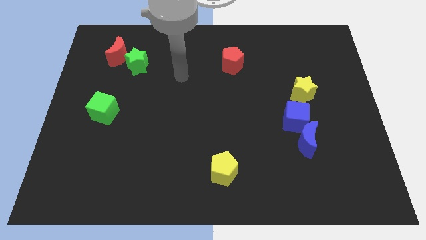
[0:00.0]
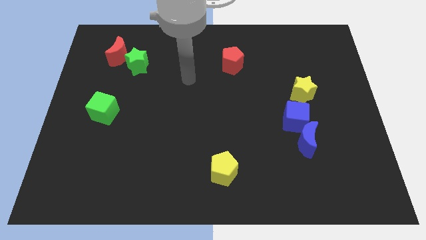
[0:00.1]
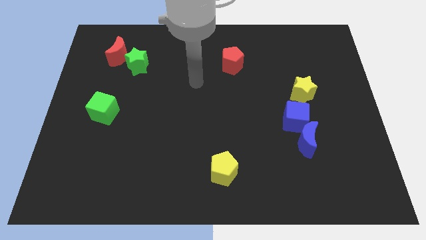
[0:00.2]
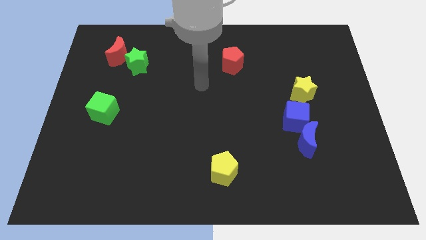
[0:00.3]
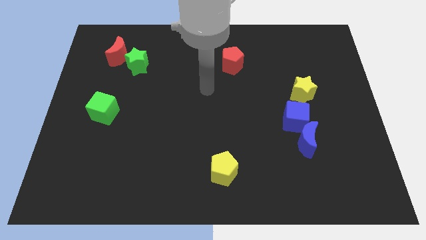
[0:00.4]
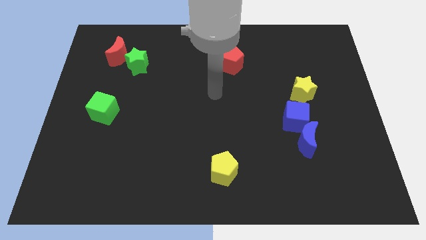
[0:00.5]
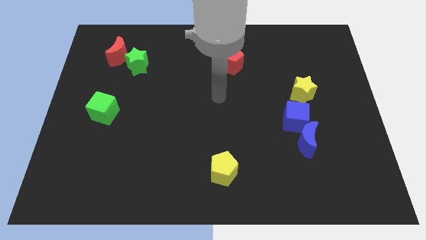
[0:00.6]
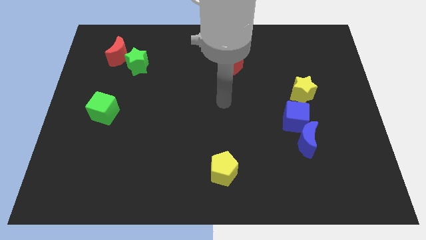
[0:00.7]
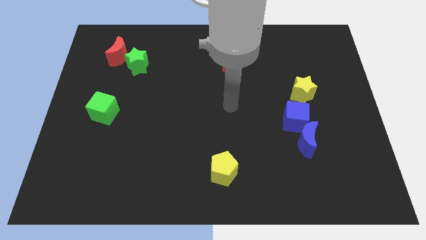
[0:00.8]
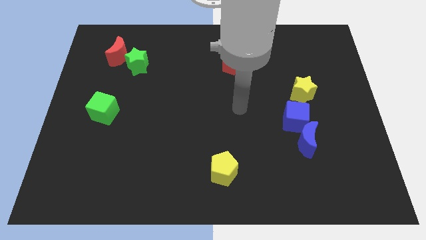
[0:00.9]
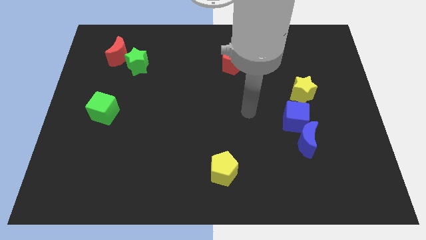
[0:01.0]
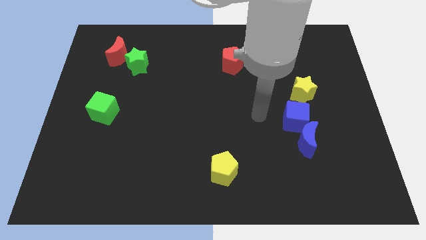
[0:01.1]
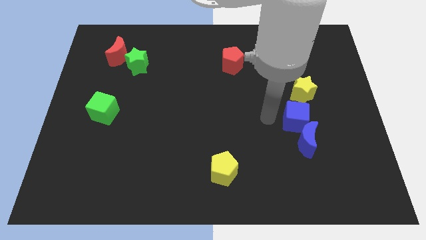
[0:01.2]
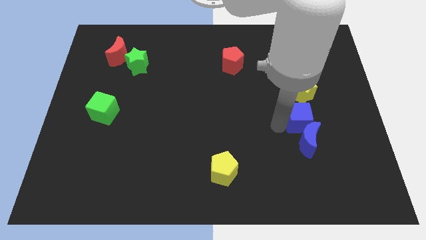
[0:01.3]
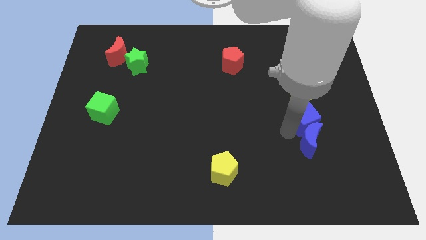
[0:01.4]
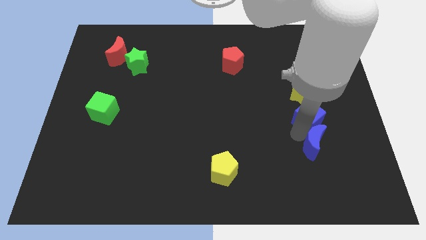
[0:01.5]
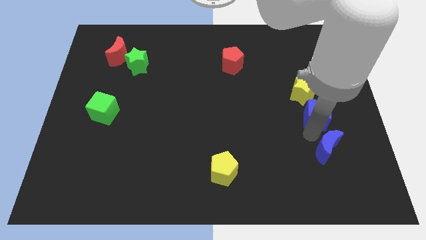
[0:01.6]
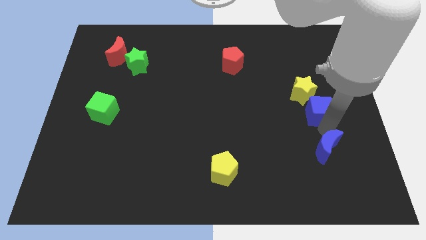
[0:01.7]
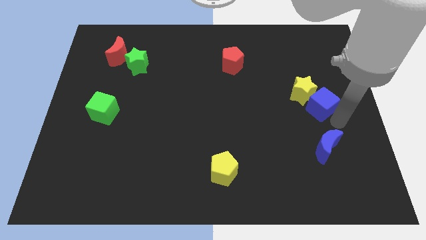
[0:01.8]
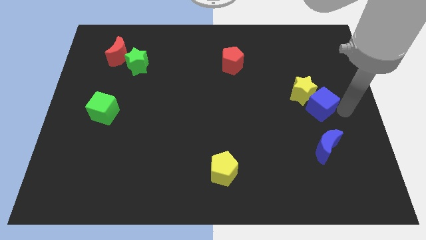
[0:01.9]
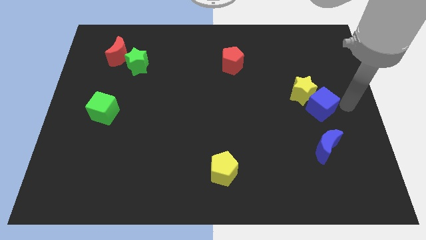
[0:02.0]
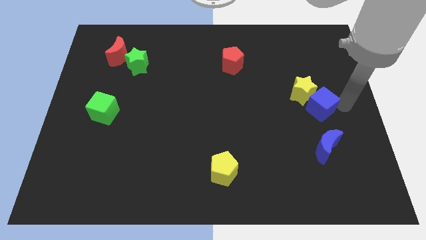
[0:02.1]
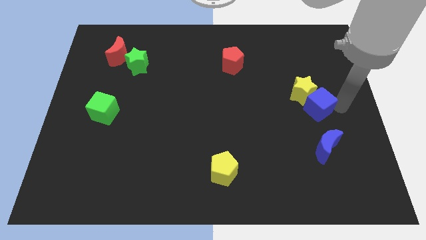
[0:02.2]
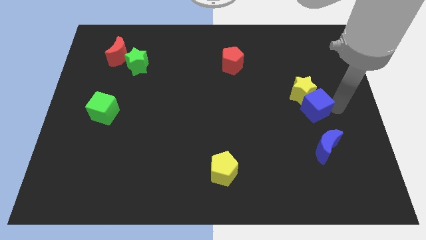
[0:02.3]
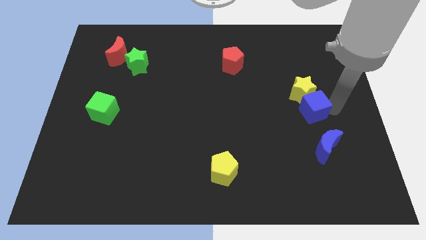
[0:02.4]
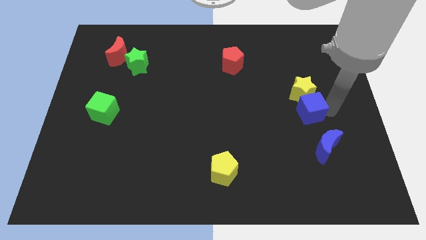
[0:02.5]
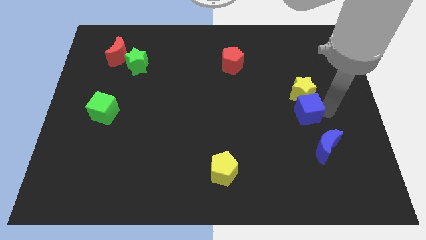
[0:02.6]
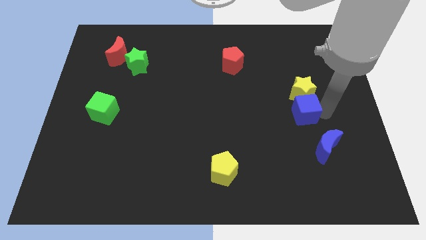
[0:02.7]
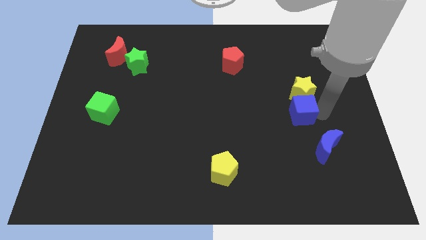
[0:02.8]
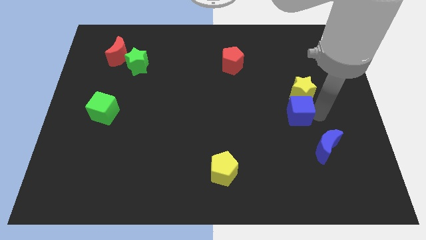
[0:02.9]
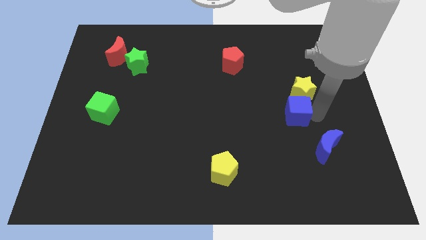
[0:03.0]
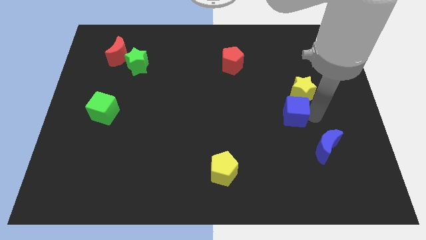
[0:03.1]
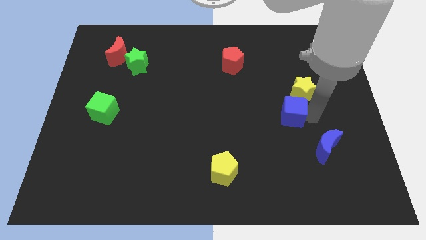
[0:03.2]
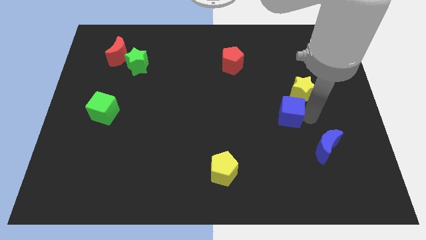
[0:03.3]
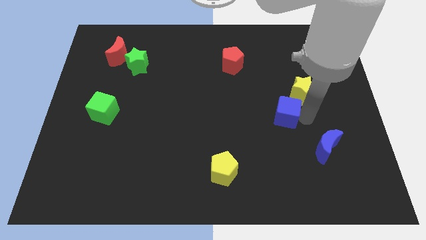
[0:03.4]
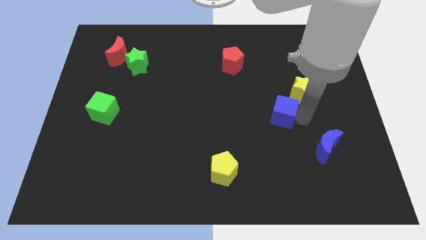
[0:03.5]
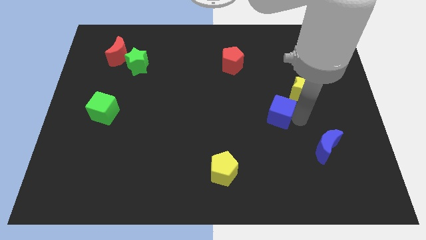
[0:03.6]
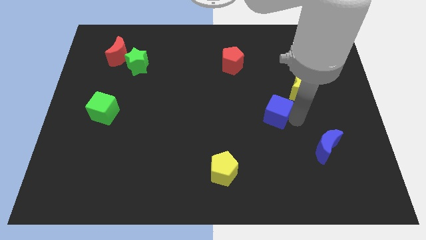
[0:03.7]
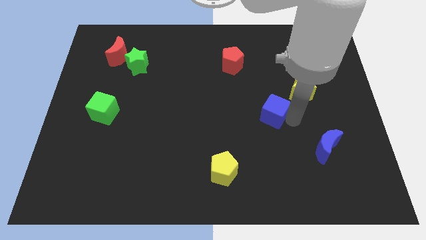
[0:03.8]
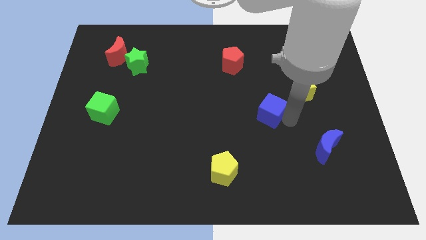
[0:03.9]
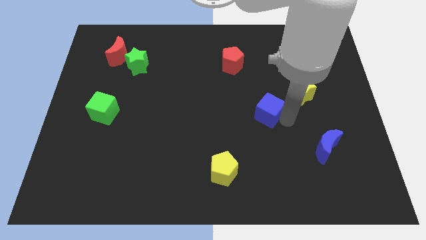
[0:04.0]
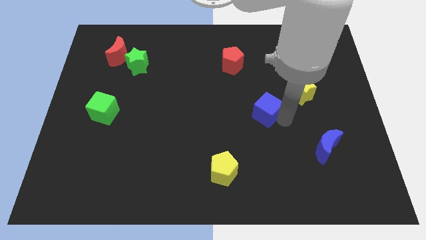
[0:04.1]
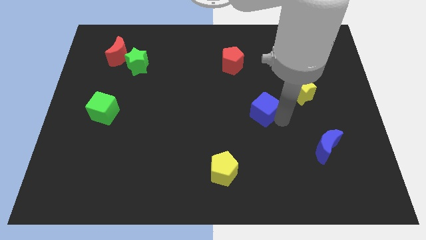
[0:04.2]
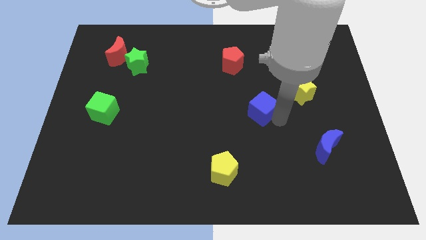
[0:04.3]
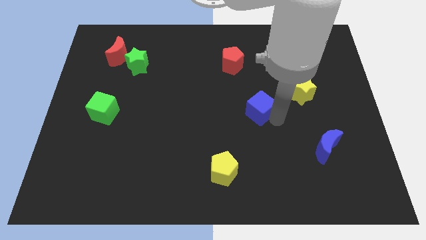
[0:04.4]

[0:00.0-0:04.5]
push the blue cube somewhat upwards and then to the left

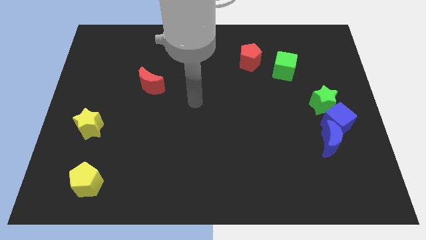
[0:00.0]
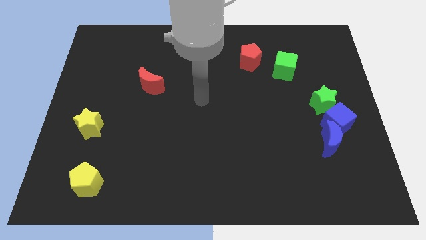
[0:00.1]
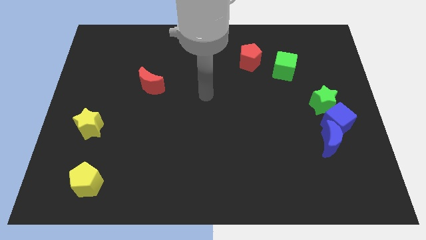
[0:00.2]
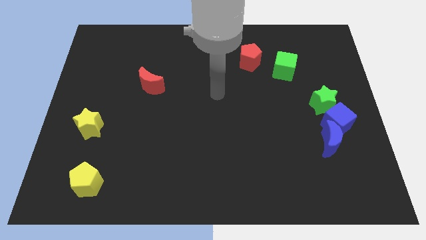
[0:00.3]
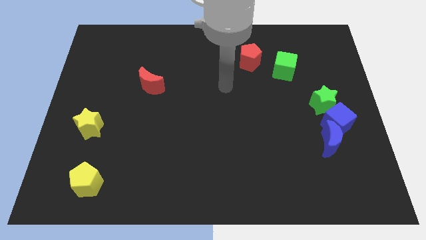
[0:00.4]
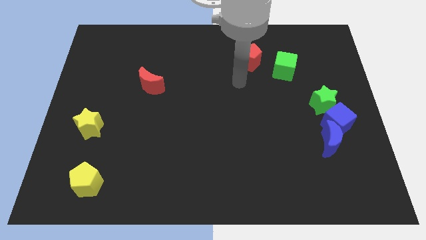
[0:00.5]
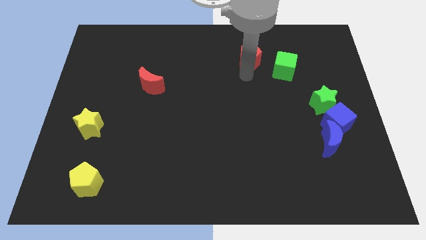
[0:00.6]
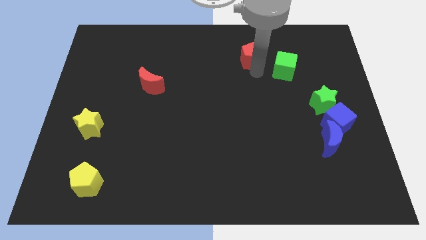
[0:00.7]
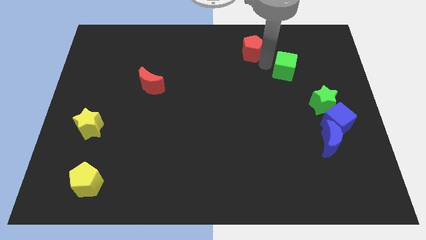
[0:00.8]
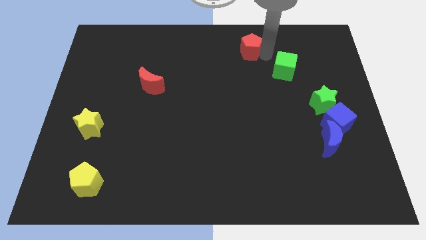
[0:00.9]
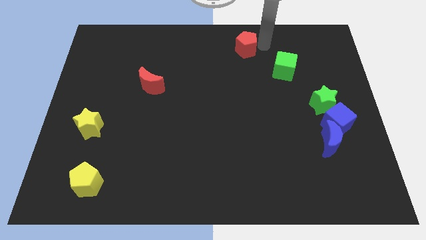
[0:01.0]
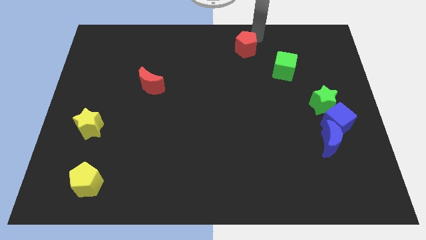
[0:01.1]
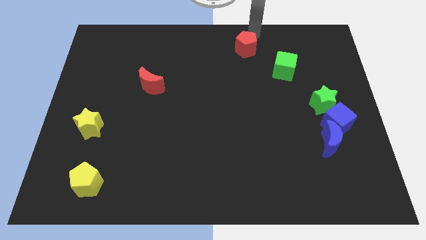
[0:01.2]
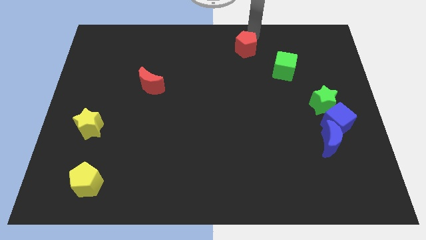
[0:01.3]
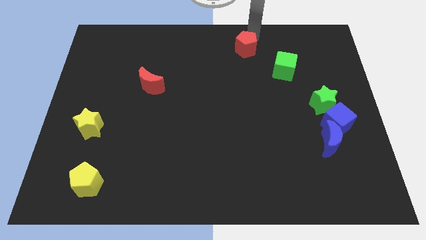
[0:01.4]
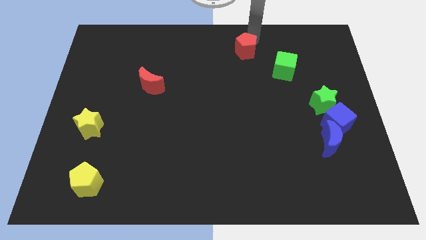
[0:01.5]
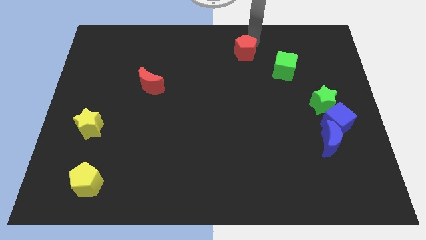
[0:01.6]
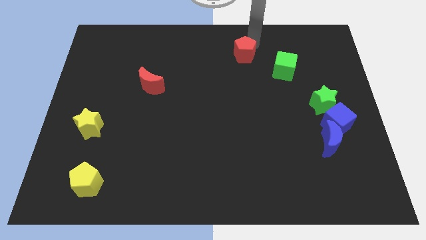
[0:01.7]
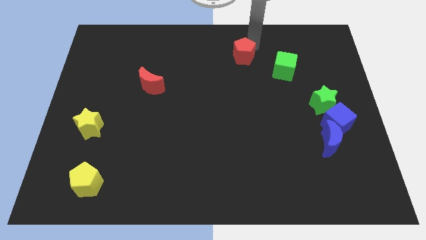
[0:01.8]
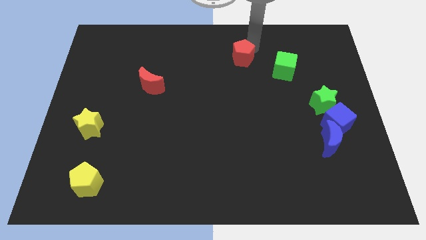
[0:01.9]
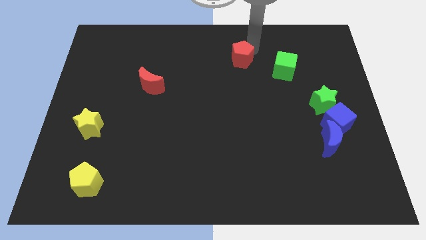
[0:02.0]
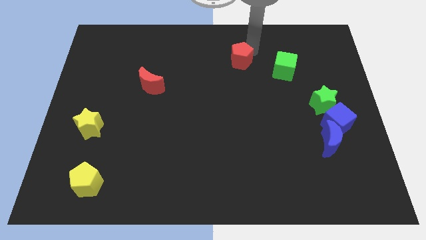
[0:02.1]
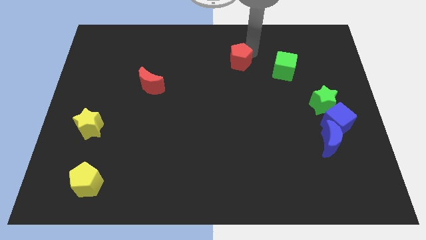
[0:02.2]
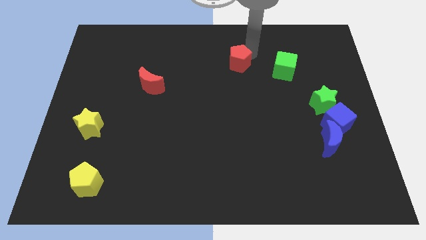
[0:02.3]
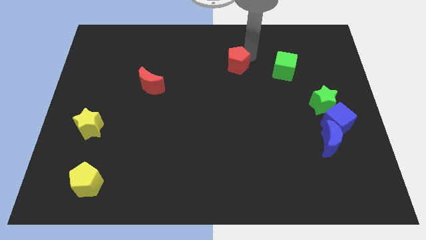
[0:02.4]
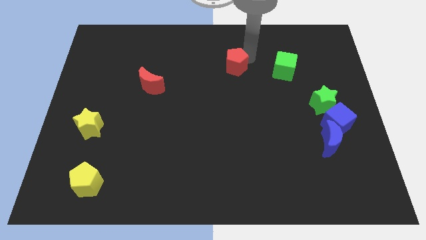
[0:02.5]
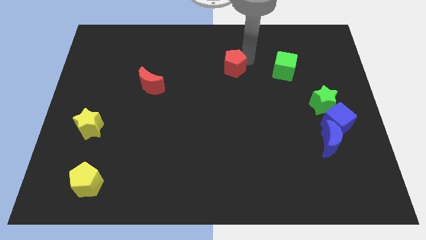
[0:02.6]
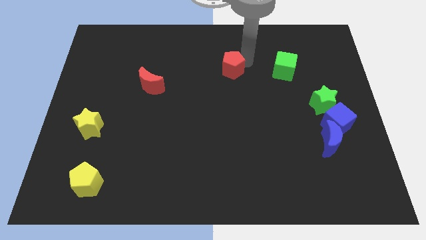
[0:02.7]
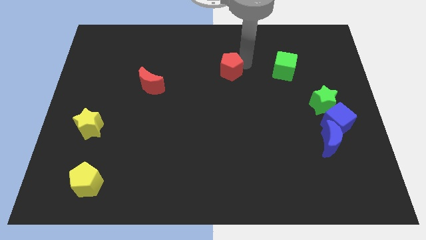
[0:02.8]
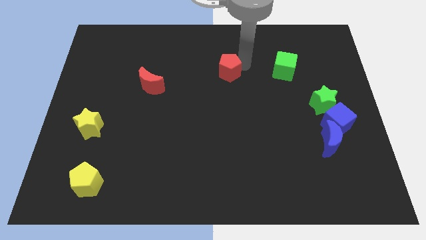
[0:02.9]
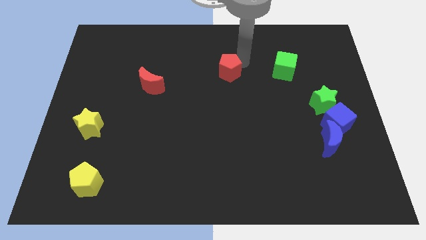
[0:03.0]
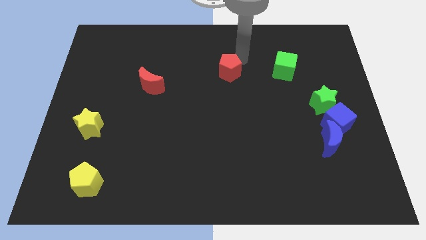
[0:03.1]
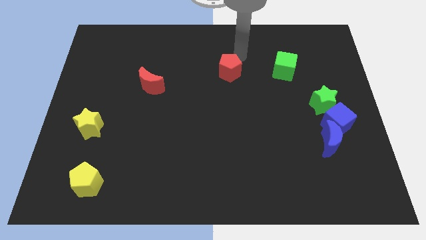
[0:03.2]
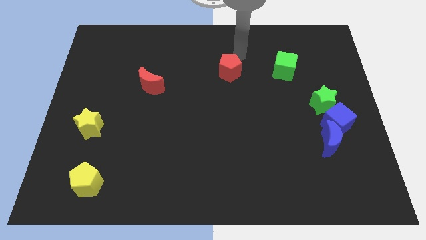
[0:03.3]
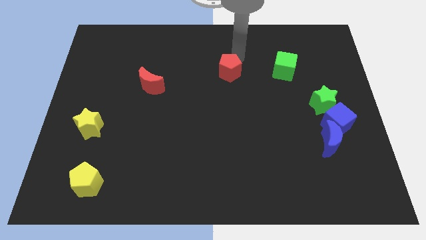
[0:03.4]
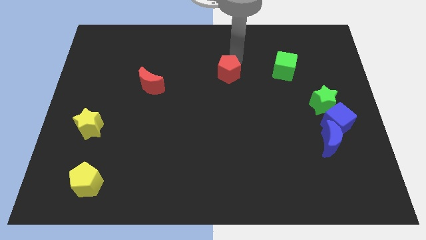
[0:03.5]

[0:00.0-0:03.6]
slightly push the red pentagon down and to the left
